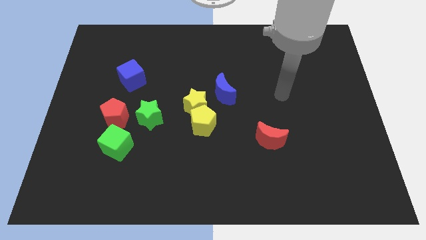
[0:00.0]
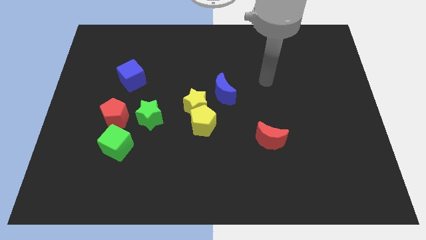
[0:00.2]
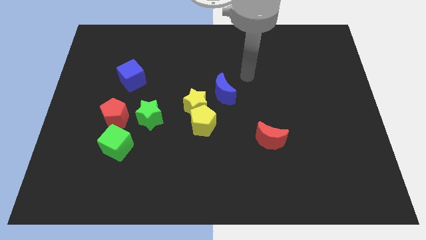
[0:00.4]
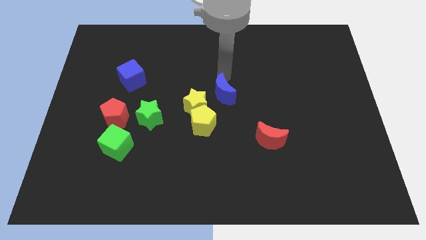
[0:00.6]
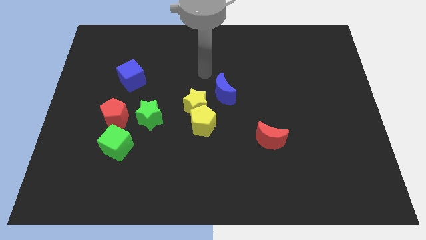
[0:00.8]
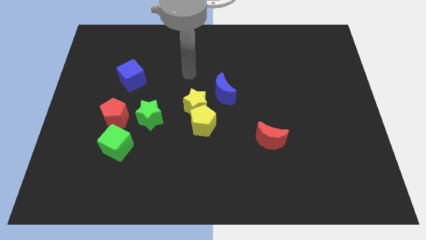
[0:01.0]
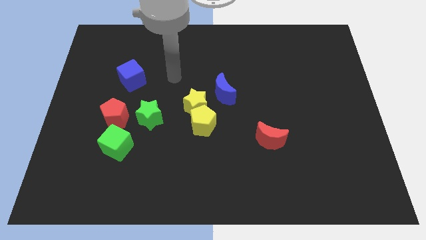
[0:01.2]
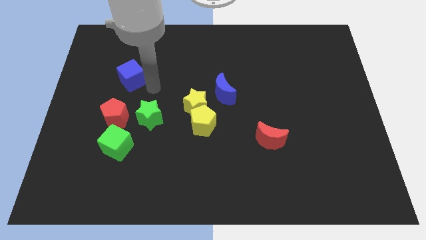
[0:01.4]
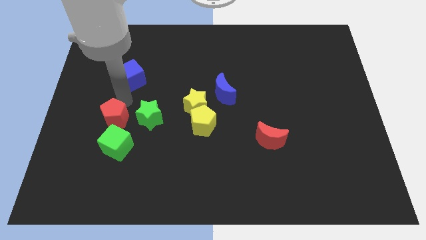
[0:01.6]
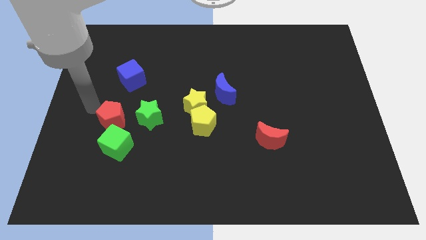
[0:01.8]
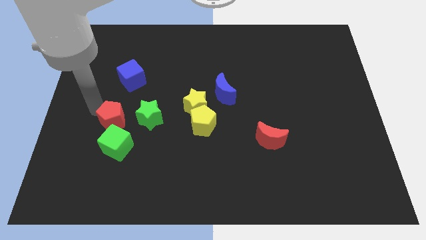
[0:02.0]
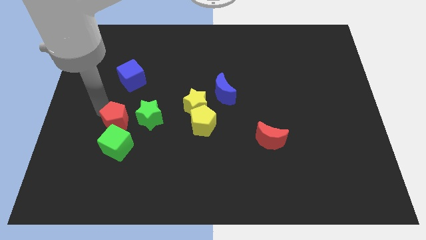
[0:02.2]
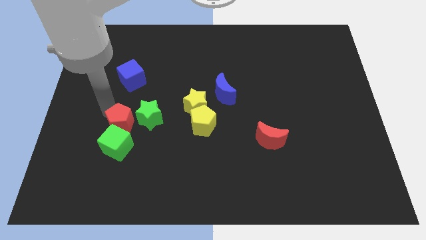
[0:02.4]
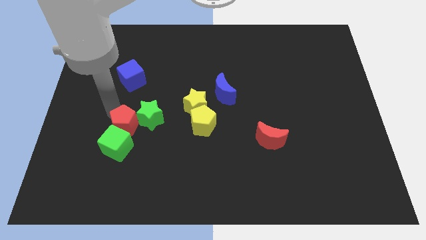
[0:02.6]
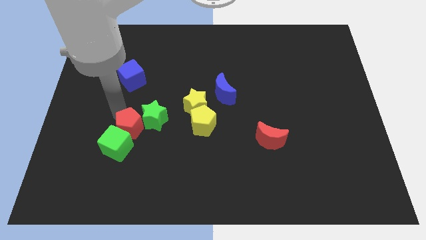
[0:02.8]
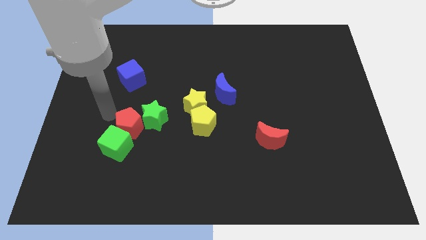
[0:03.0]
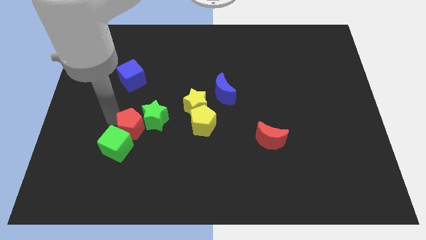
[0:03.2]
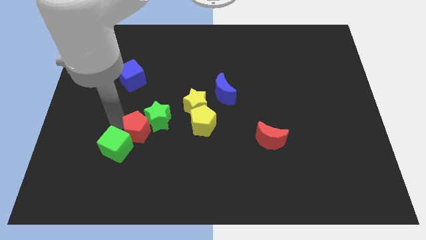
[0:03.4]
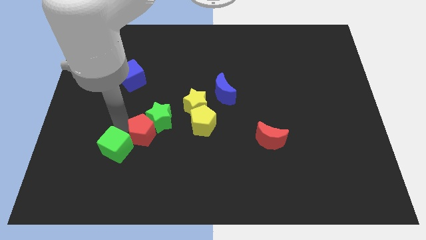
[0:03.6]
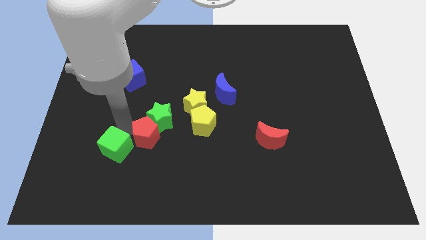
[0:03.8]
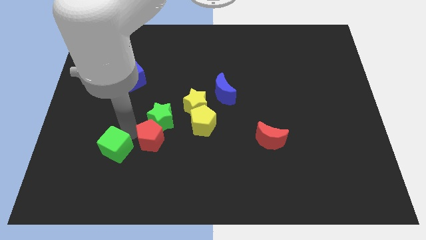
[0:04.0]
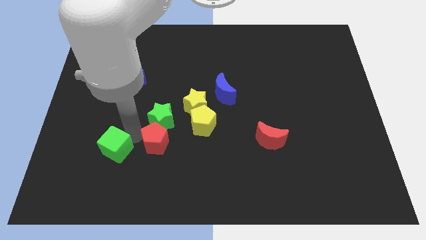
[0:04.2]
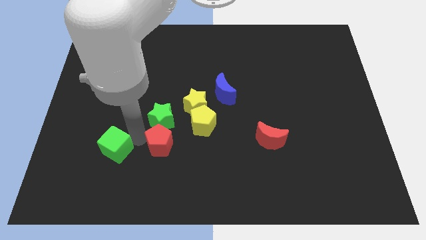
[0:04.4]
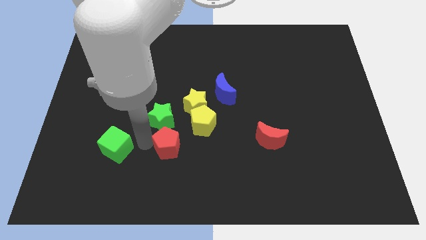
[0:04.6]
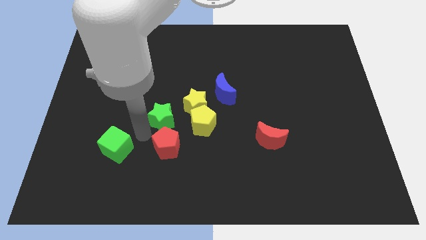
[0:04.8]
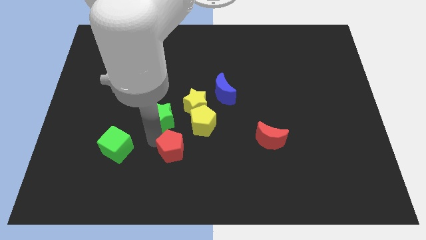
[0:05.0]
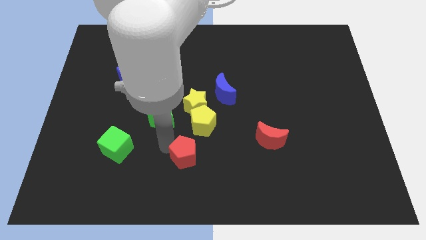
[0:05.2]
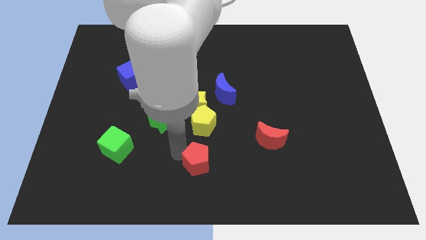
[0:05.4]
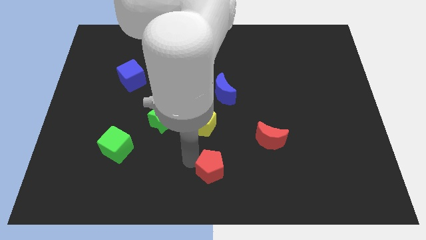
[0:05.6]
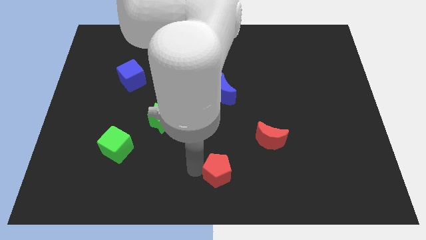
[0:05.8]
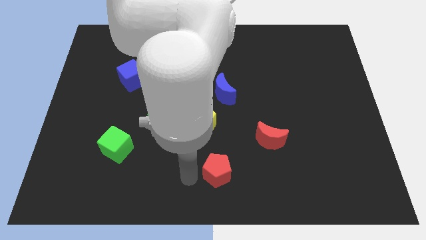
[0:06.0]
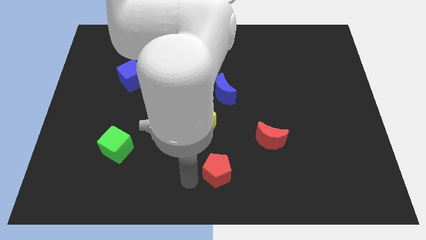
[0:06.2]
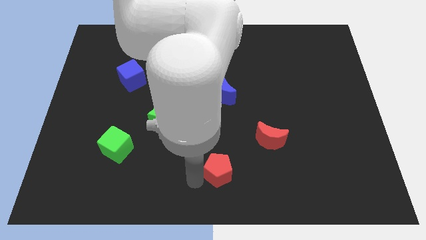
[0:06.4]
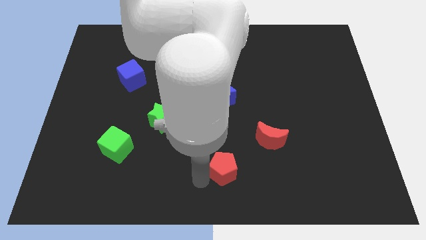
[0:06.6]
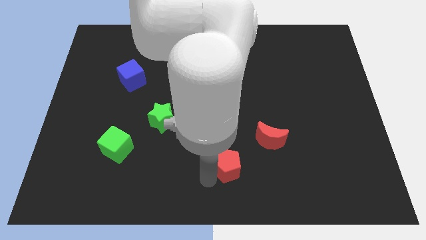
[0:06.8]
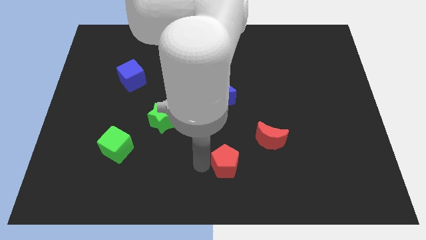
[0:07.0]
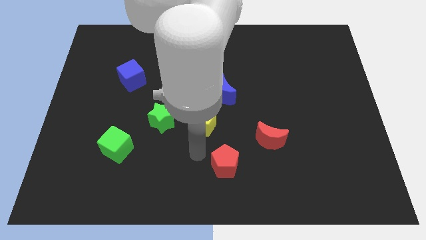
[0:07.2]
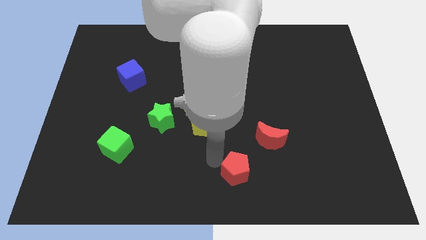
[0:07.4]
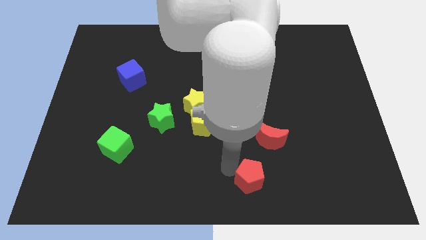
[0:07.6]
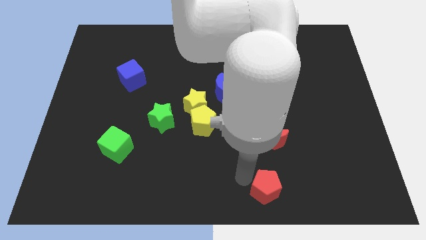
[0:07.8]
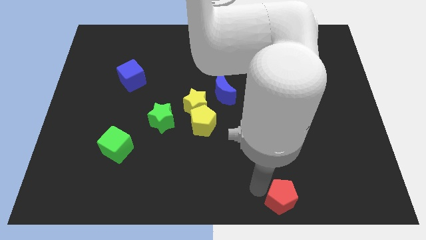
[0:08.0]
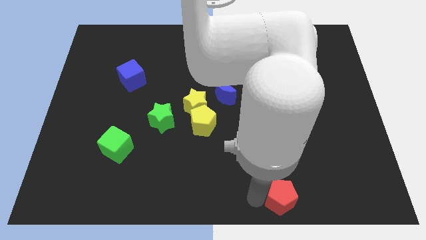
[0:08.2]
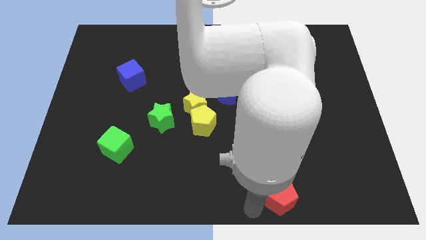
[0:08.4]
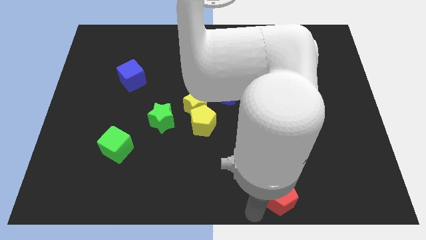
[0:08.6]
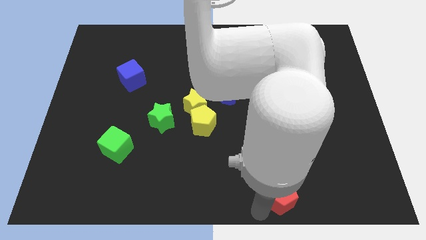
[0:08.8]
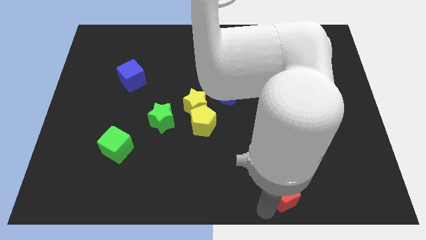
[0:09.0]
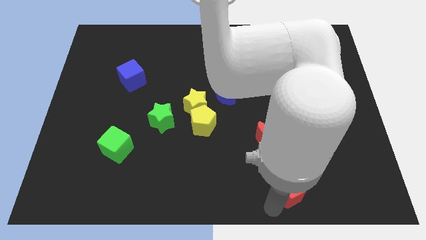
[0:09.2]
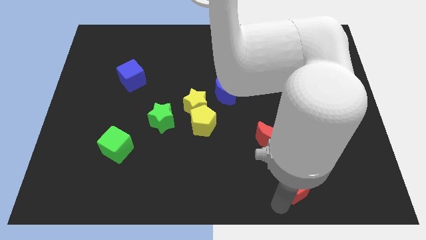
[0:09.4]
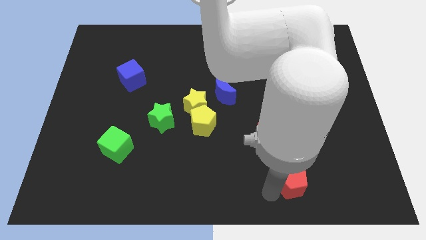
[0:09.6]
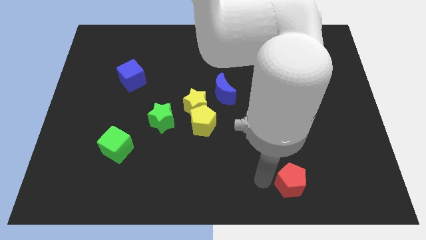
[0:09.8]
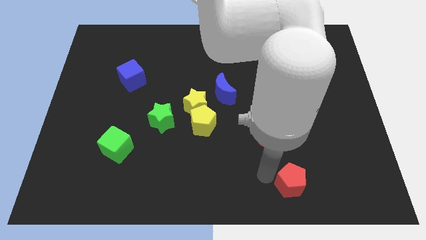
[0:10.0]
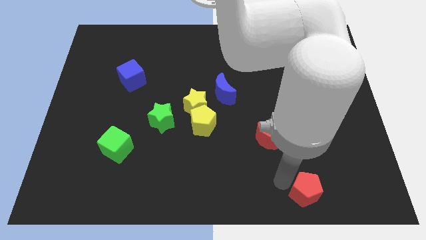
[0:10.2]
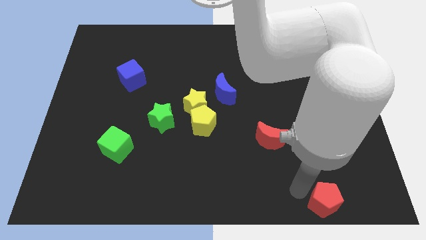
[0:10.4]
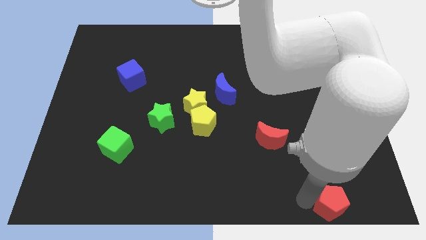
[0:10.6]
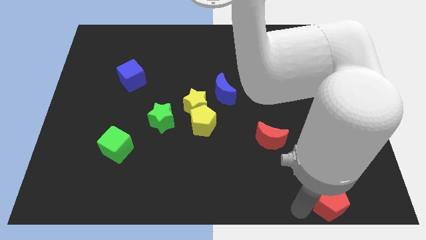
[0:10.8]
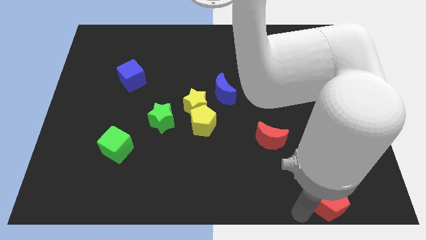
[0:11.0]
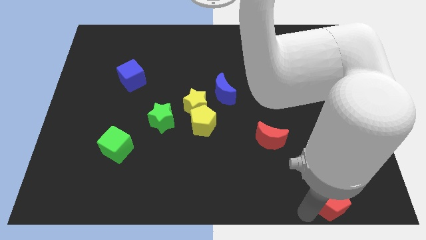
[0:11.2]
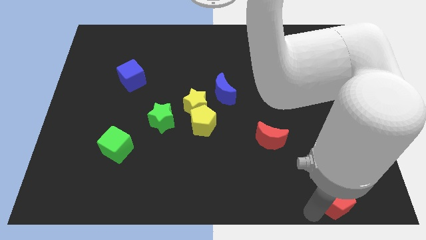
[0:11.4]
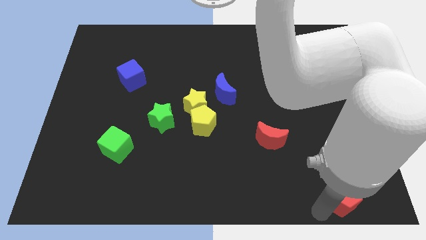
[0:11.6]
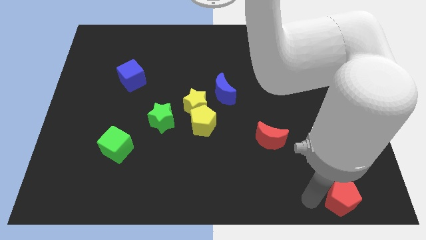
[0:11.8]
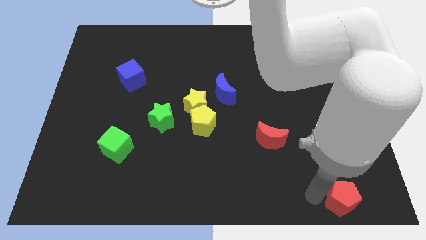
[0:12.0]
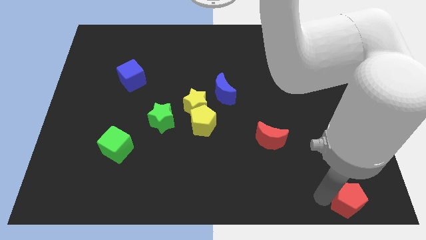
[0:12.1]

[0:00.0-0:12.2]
slide the red pentagon to the bottom right corner
